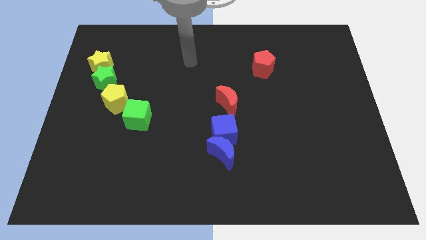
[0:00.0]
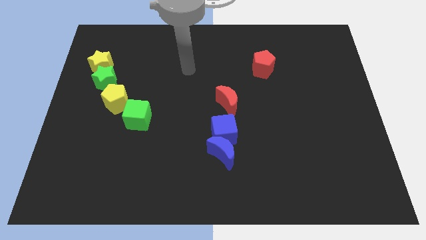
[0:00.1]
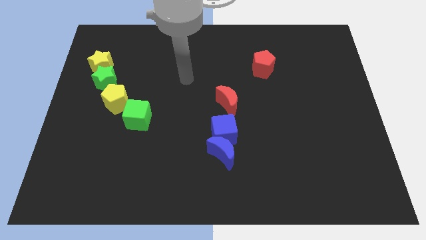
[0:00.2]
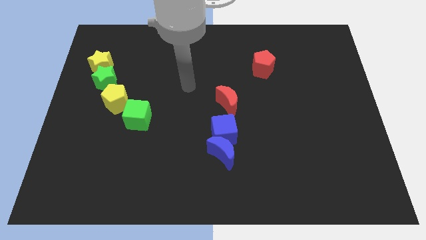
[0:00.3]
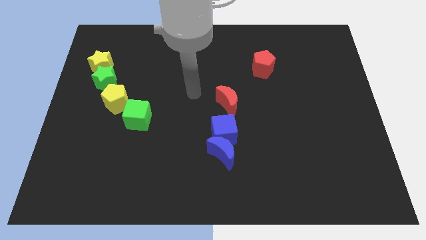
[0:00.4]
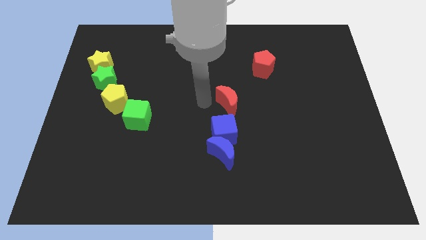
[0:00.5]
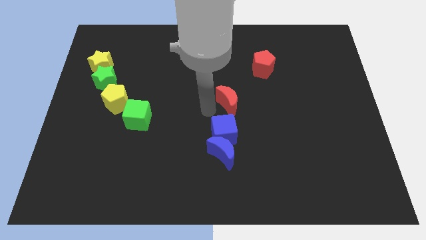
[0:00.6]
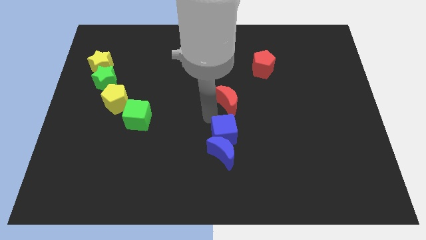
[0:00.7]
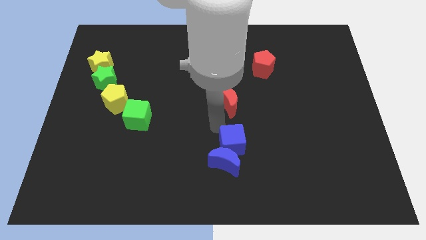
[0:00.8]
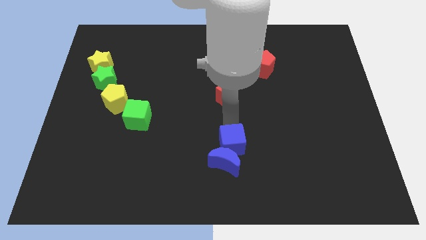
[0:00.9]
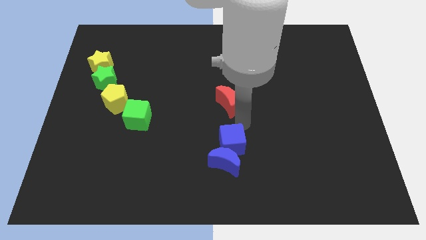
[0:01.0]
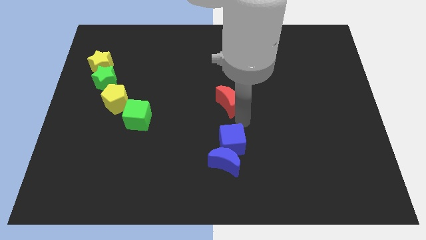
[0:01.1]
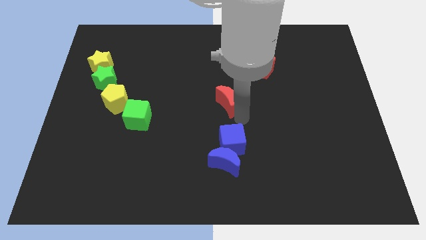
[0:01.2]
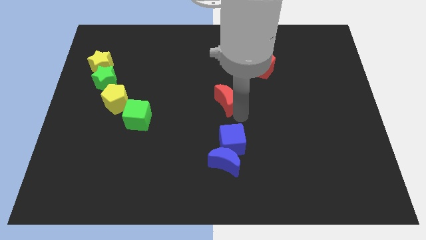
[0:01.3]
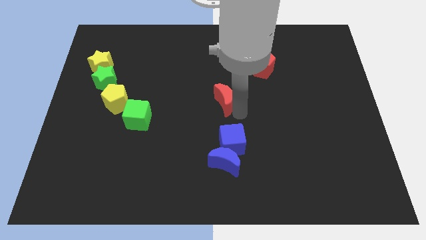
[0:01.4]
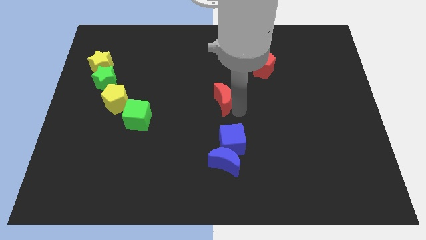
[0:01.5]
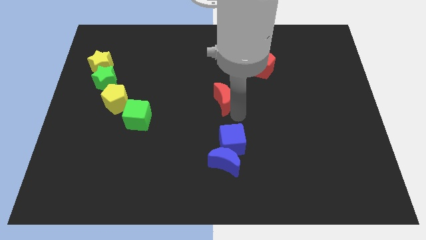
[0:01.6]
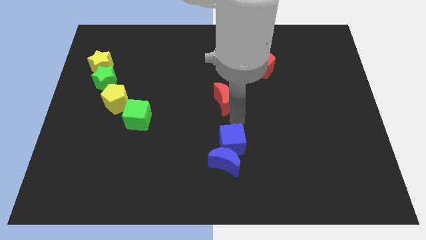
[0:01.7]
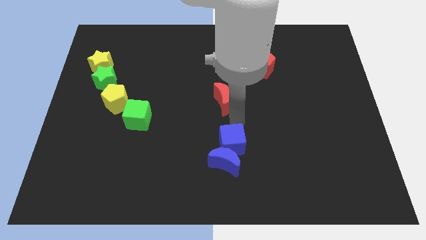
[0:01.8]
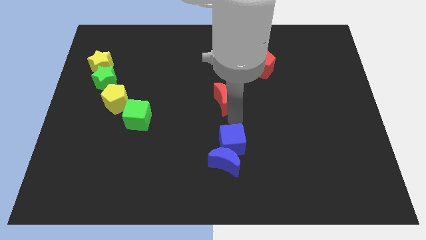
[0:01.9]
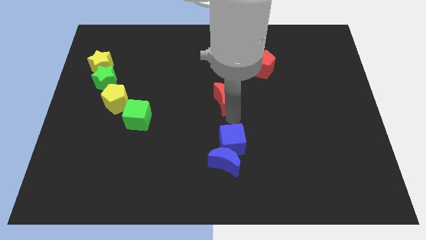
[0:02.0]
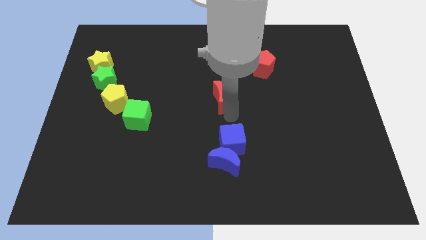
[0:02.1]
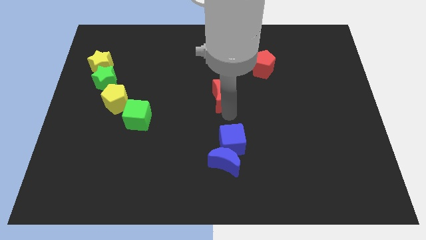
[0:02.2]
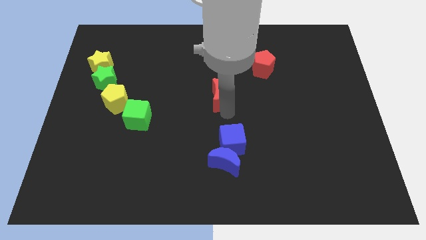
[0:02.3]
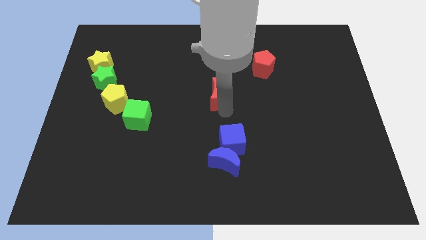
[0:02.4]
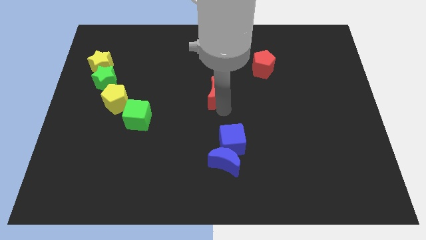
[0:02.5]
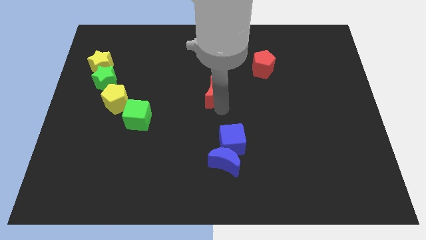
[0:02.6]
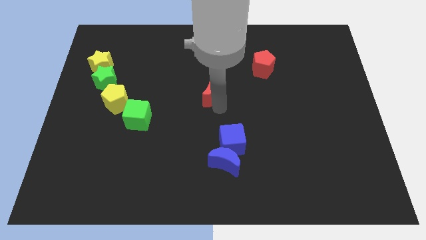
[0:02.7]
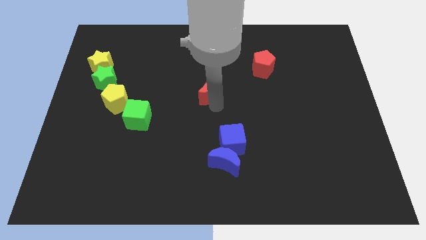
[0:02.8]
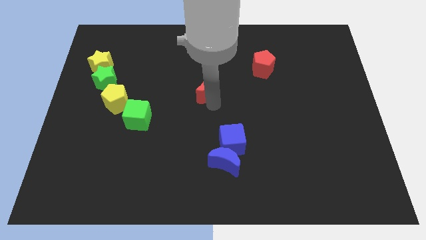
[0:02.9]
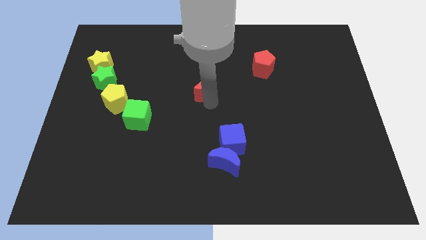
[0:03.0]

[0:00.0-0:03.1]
slightly push the red moon up and to the left

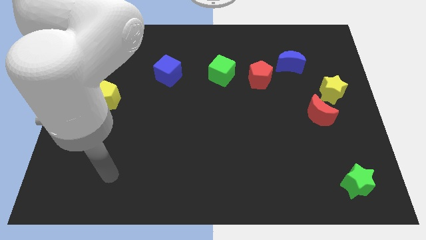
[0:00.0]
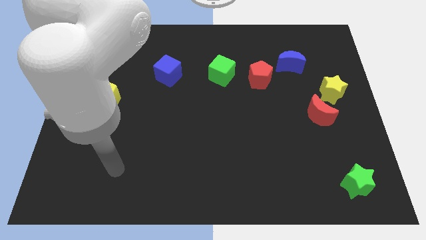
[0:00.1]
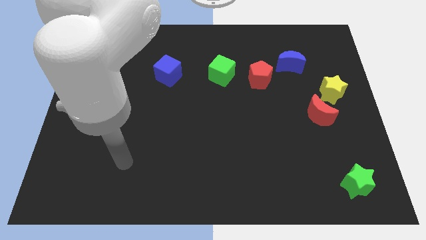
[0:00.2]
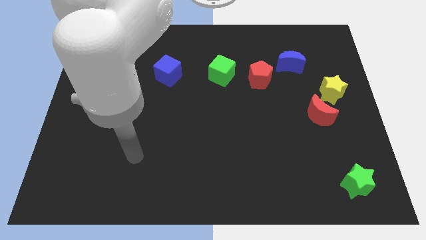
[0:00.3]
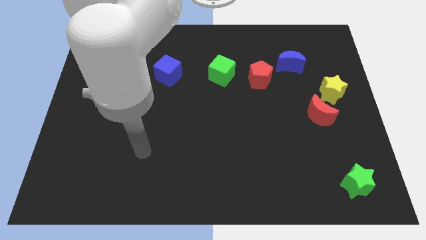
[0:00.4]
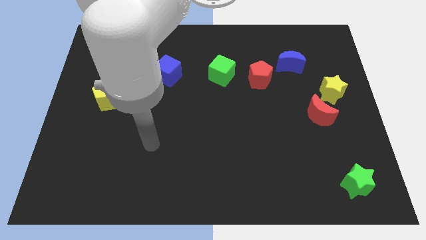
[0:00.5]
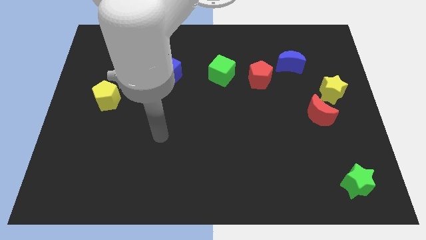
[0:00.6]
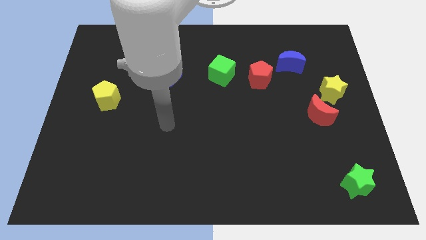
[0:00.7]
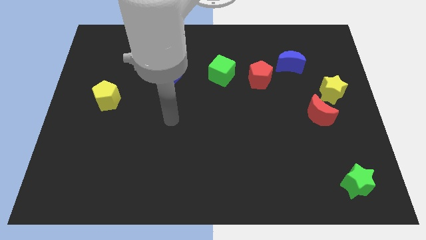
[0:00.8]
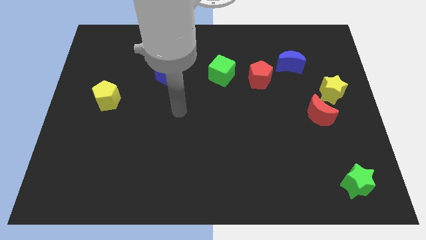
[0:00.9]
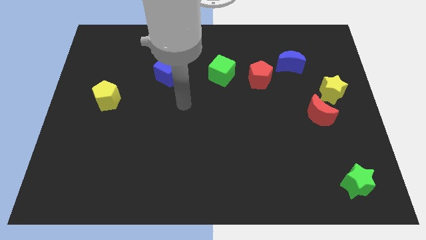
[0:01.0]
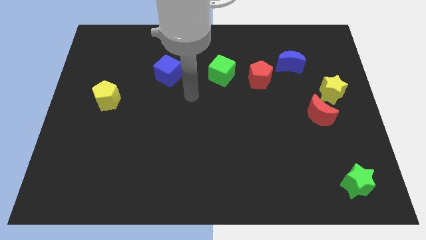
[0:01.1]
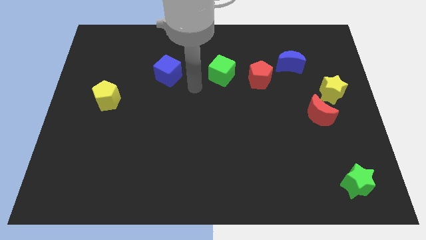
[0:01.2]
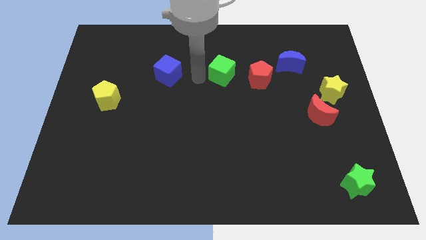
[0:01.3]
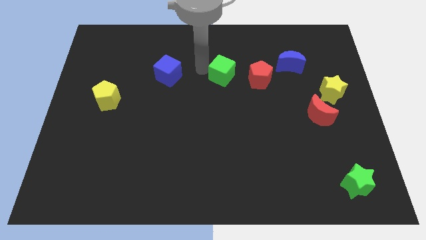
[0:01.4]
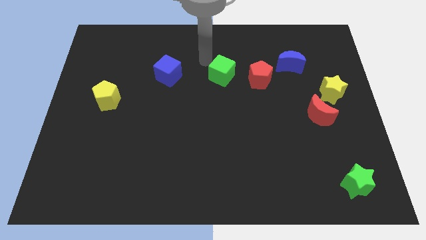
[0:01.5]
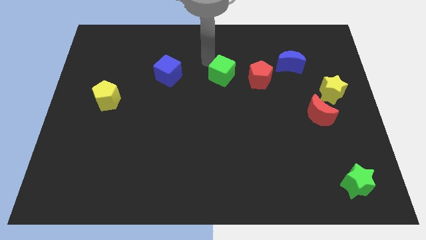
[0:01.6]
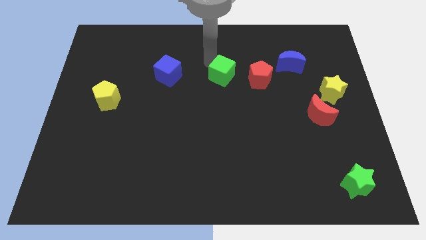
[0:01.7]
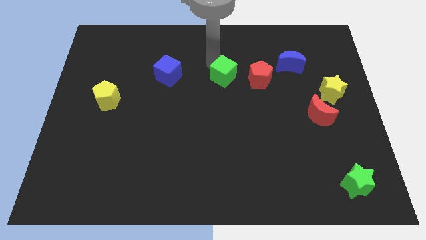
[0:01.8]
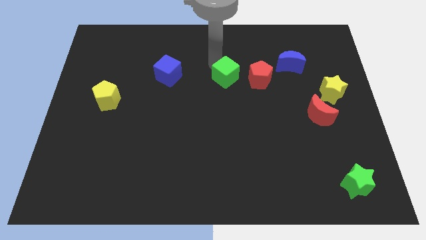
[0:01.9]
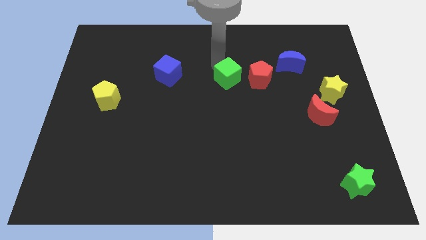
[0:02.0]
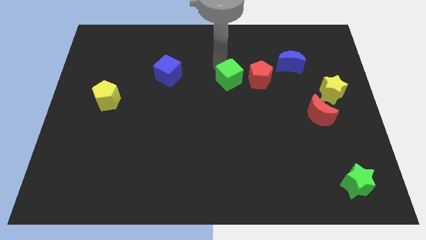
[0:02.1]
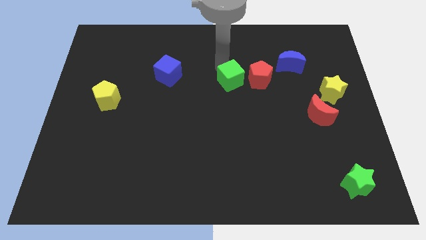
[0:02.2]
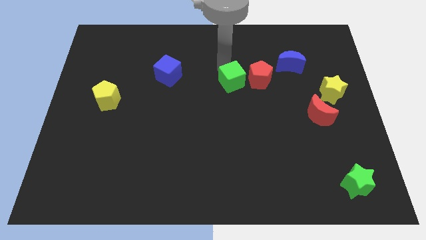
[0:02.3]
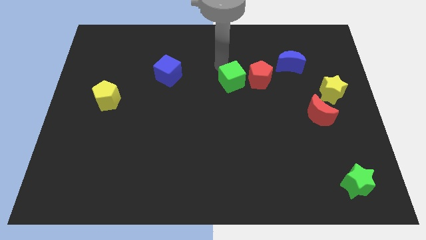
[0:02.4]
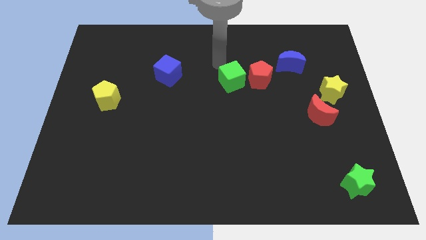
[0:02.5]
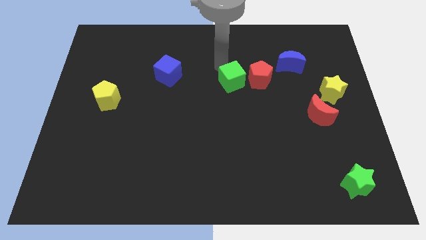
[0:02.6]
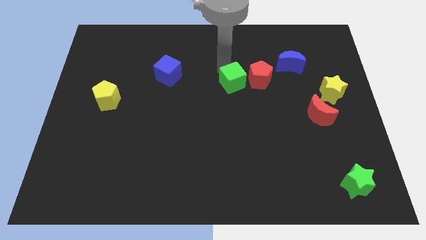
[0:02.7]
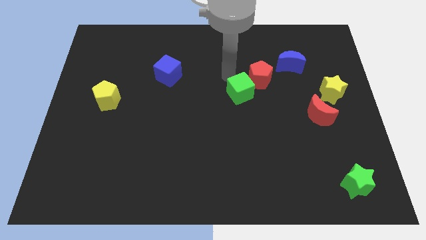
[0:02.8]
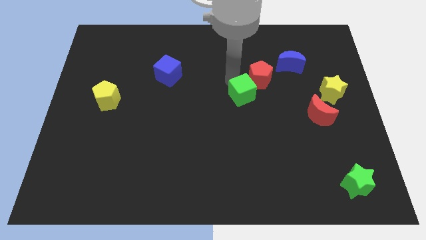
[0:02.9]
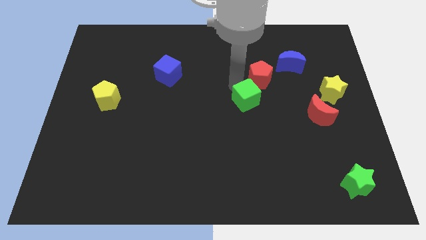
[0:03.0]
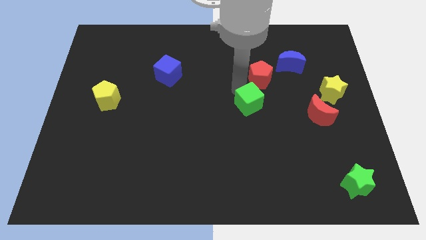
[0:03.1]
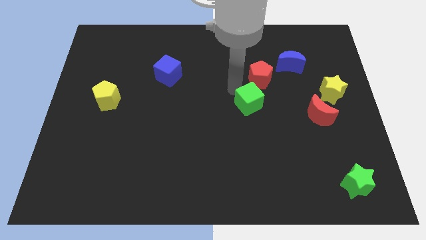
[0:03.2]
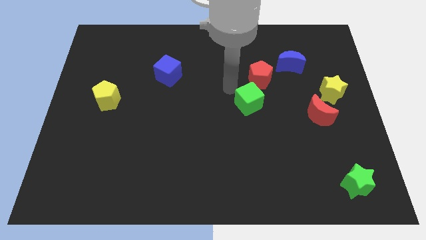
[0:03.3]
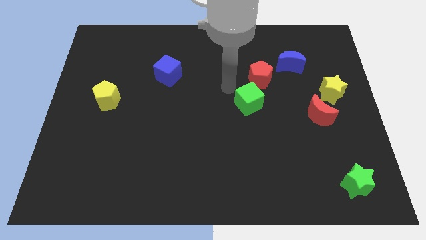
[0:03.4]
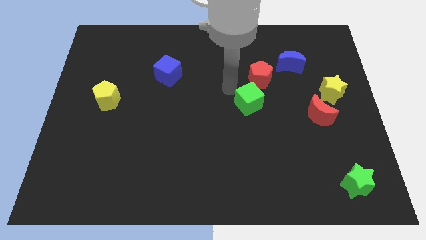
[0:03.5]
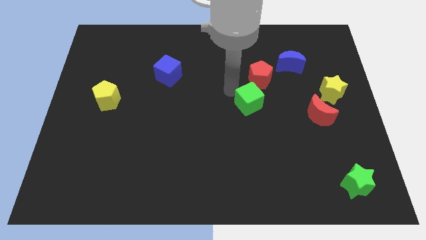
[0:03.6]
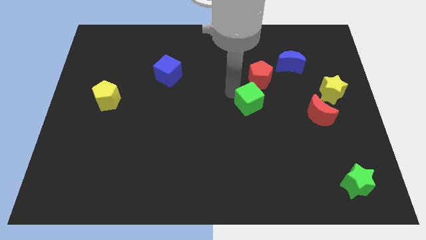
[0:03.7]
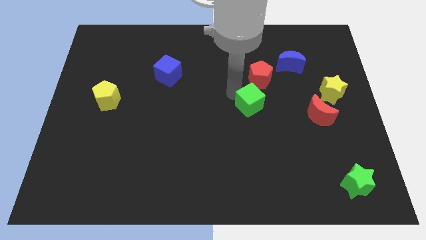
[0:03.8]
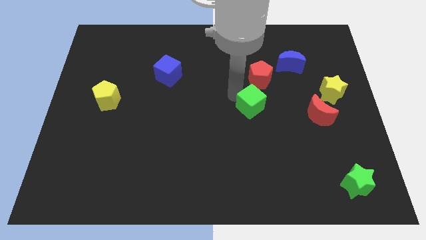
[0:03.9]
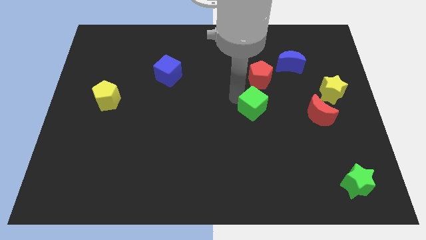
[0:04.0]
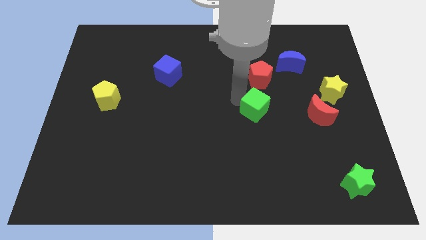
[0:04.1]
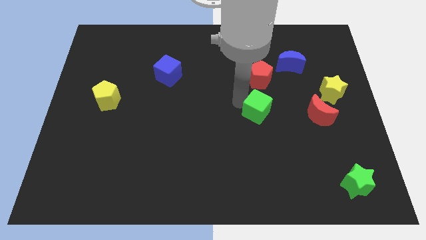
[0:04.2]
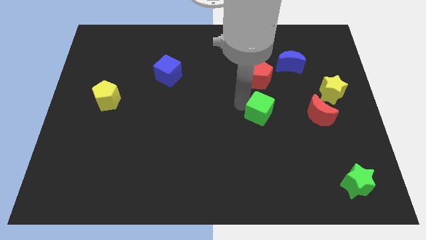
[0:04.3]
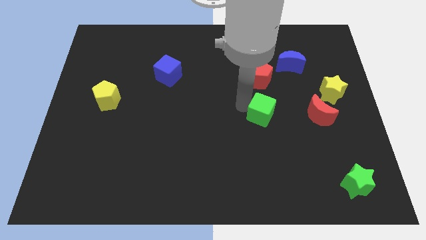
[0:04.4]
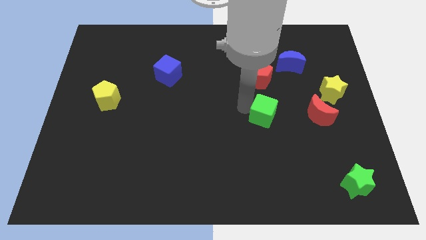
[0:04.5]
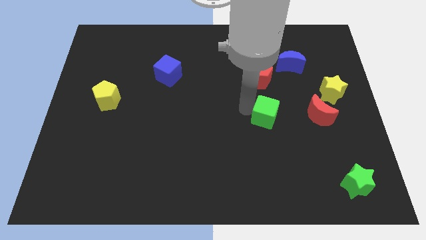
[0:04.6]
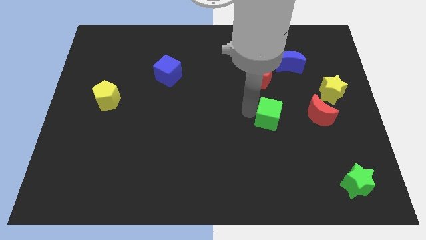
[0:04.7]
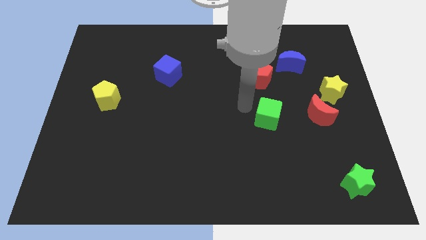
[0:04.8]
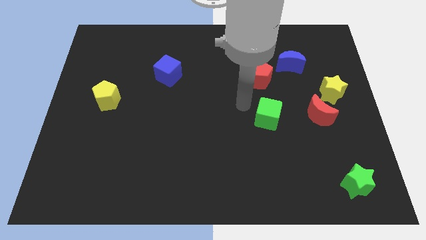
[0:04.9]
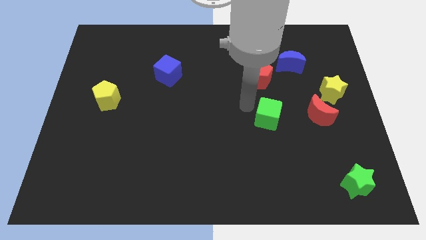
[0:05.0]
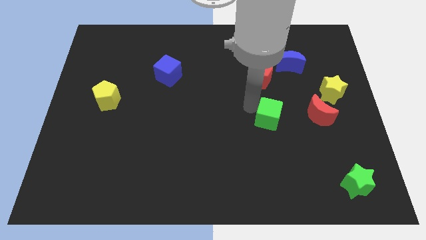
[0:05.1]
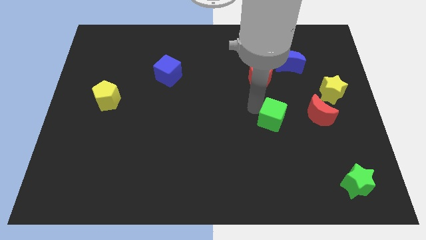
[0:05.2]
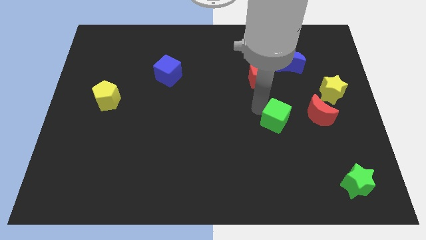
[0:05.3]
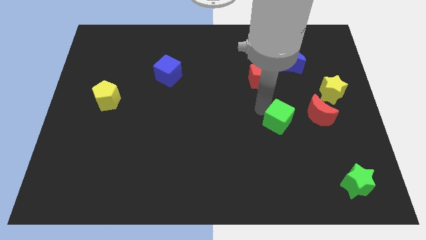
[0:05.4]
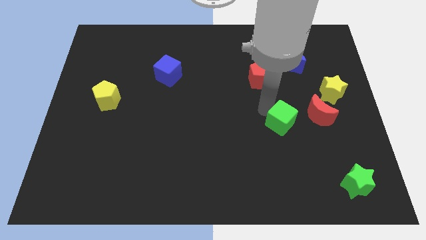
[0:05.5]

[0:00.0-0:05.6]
move the green cube downwards and right
